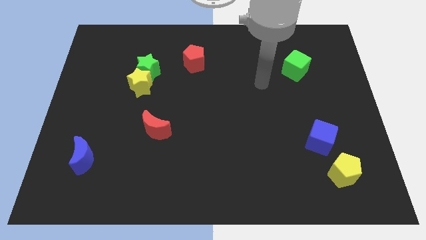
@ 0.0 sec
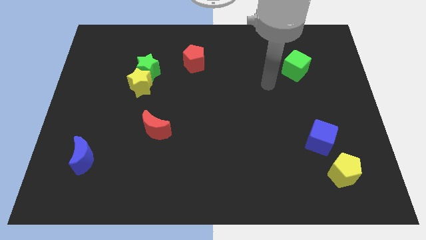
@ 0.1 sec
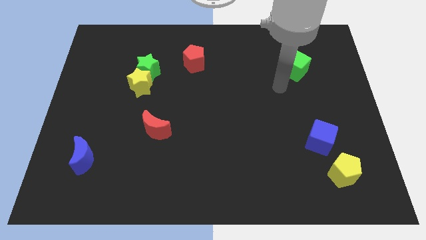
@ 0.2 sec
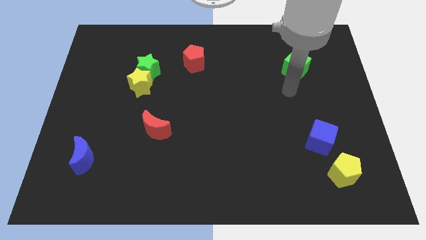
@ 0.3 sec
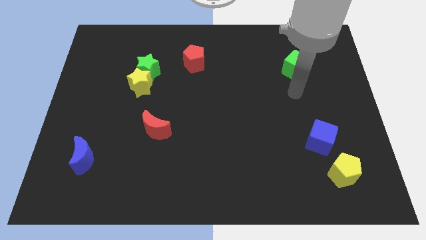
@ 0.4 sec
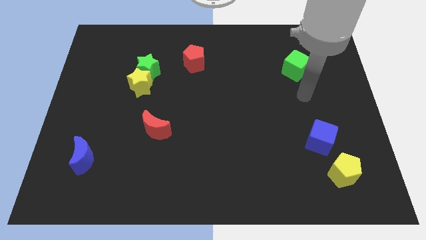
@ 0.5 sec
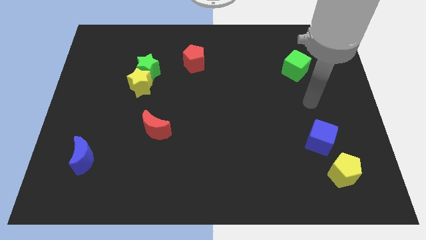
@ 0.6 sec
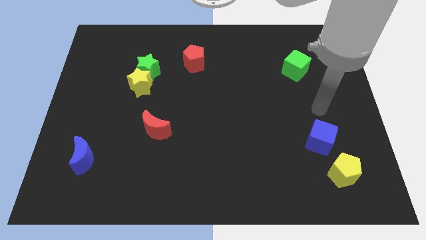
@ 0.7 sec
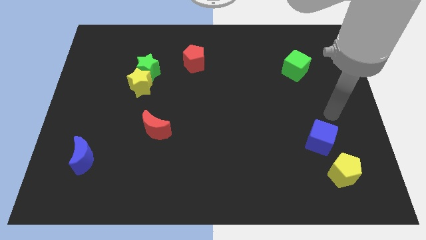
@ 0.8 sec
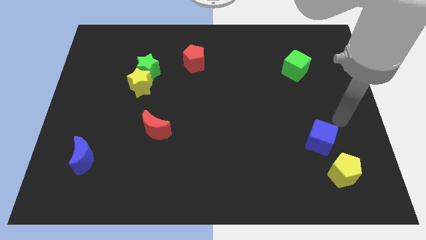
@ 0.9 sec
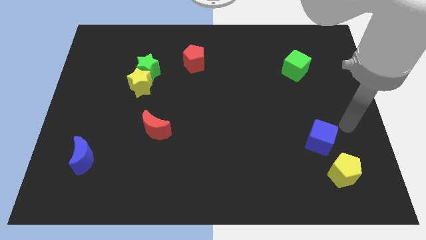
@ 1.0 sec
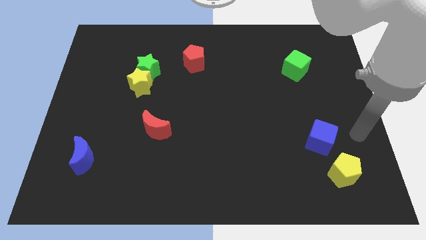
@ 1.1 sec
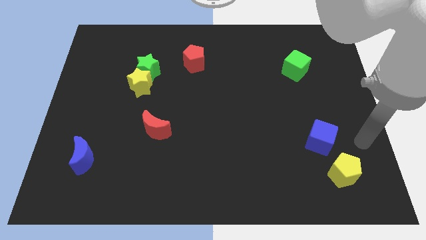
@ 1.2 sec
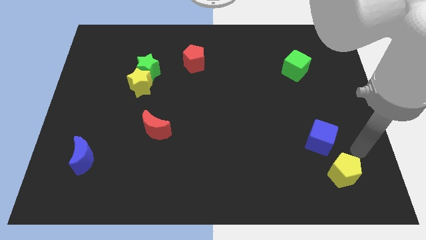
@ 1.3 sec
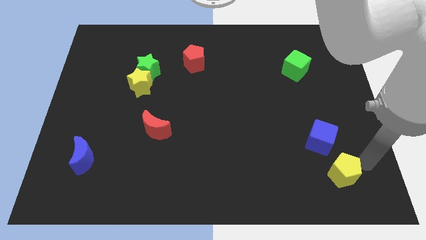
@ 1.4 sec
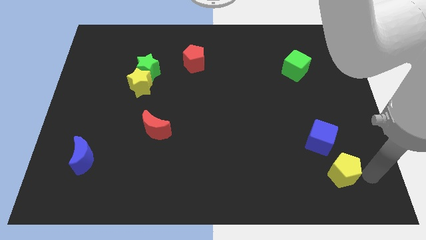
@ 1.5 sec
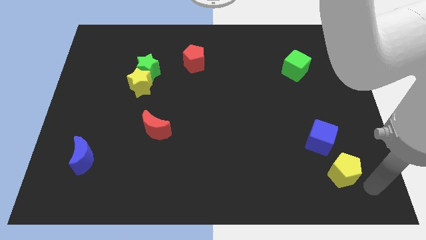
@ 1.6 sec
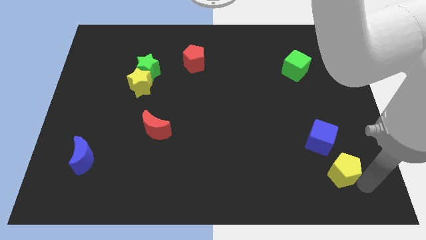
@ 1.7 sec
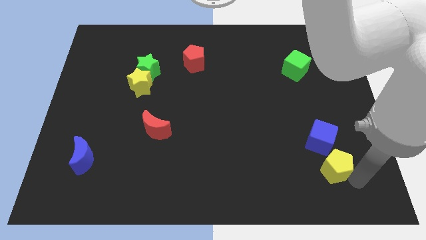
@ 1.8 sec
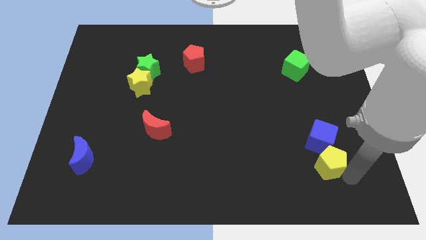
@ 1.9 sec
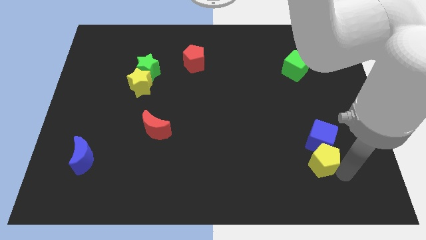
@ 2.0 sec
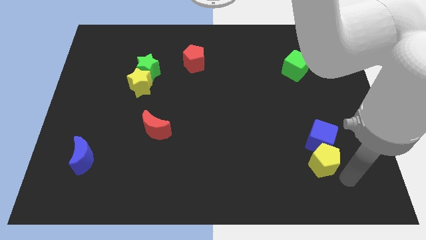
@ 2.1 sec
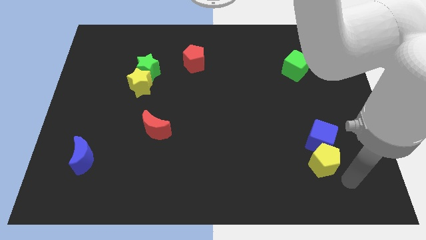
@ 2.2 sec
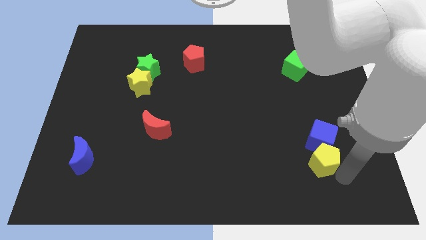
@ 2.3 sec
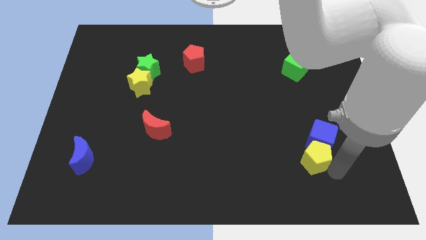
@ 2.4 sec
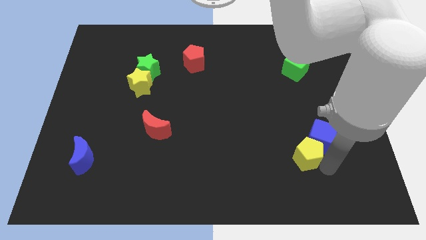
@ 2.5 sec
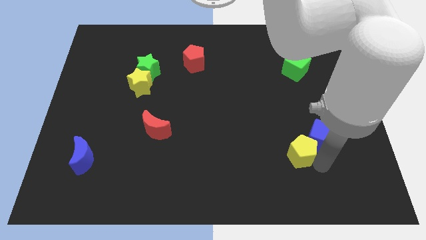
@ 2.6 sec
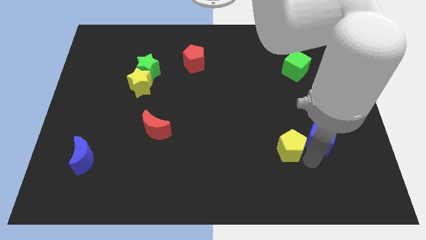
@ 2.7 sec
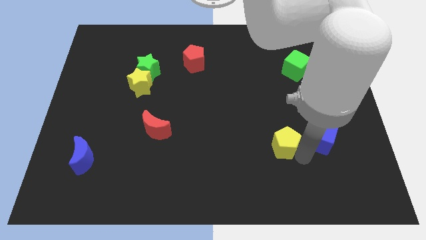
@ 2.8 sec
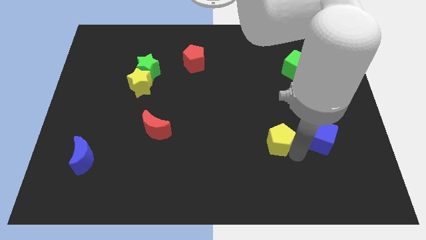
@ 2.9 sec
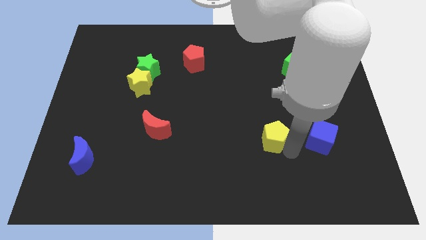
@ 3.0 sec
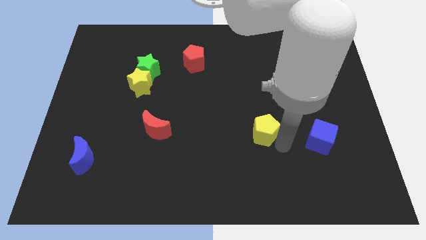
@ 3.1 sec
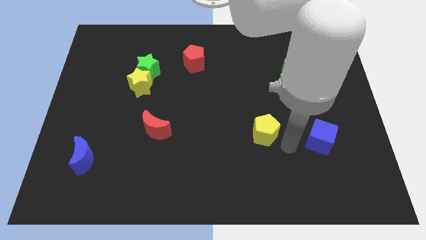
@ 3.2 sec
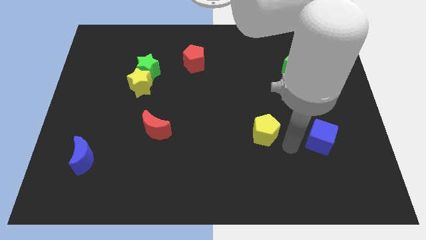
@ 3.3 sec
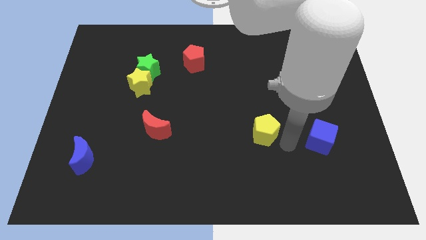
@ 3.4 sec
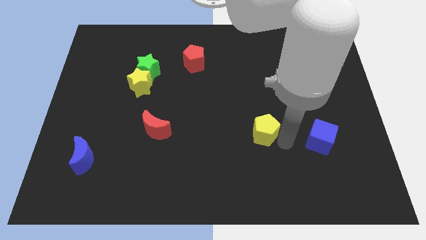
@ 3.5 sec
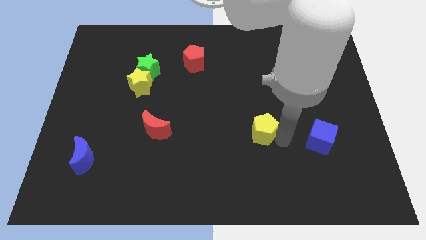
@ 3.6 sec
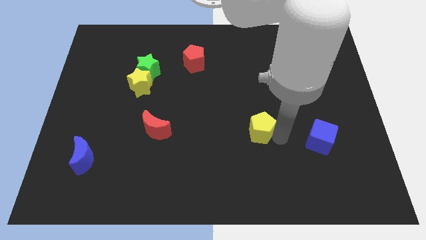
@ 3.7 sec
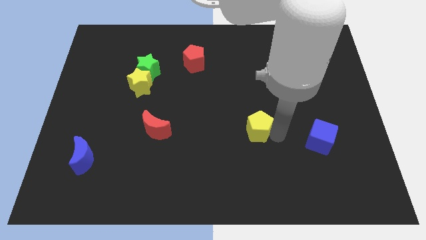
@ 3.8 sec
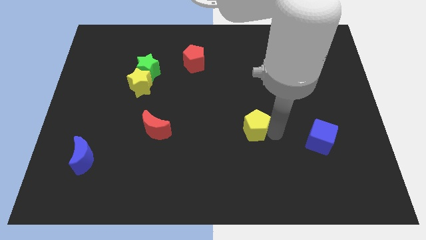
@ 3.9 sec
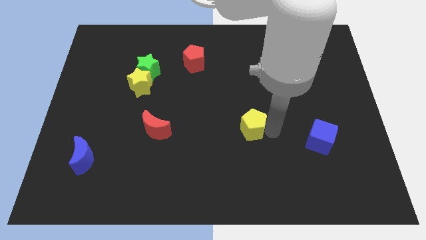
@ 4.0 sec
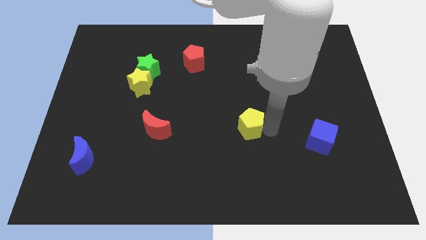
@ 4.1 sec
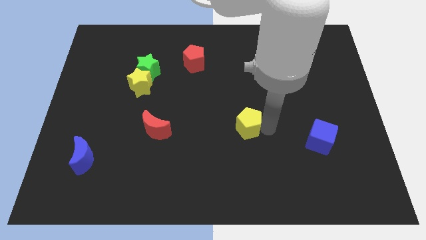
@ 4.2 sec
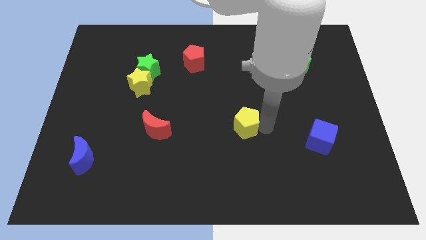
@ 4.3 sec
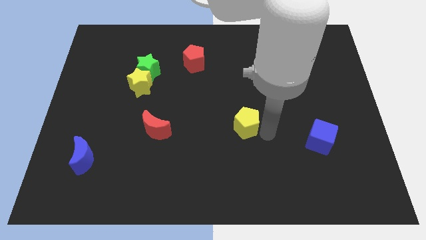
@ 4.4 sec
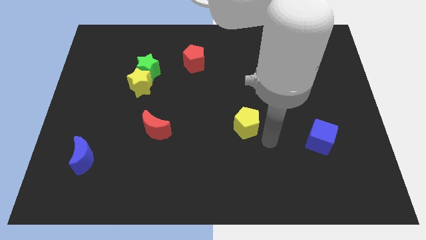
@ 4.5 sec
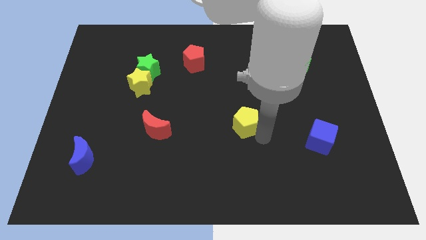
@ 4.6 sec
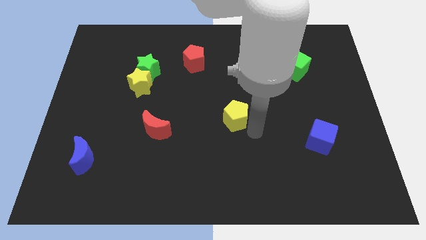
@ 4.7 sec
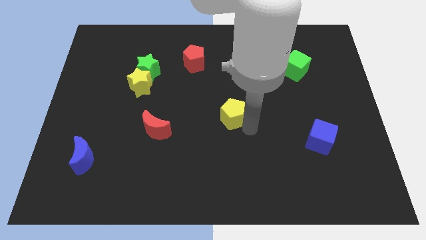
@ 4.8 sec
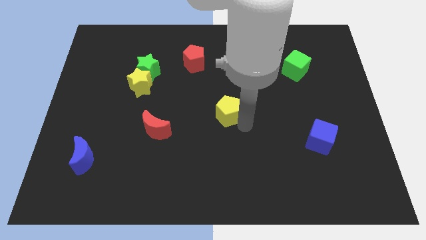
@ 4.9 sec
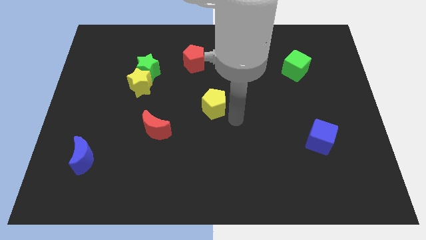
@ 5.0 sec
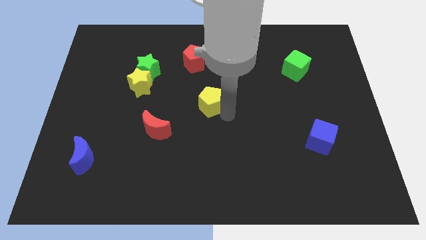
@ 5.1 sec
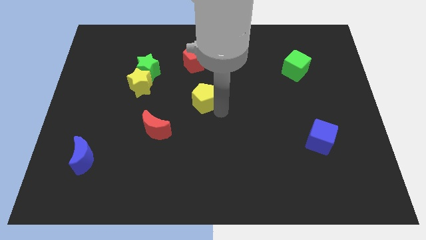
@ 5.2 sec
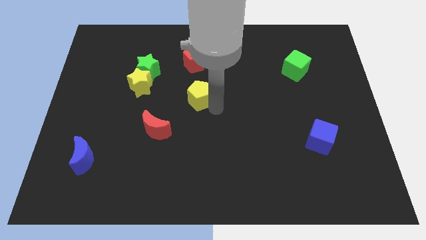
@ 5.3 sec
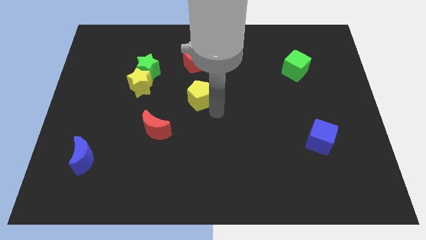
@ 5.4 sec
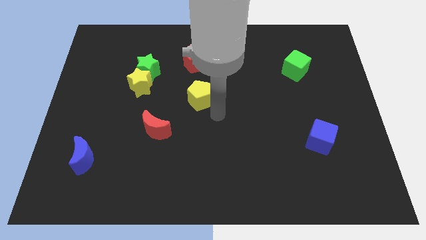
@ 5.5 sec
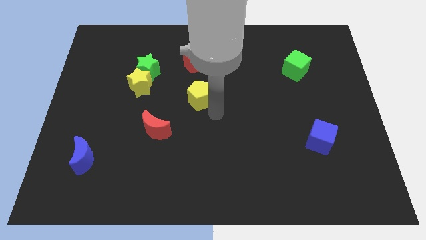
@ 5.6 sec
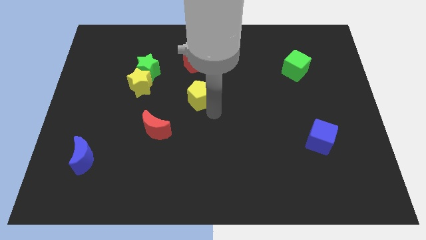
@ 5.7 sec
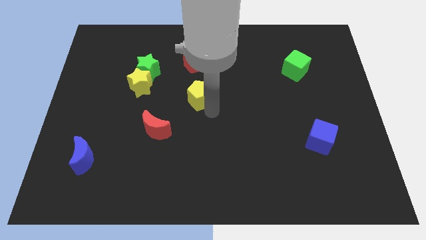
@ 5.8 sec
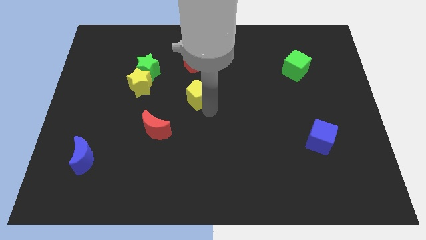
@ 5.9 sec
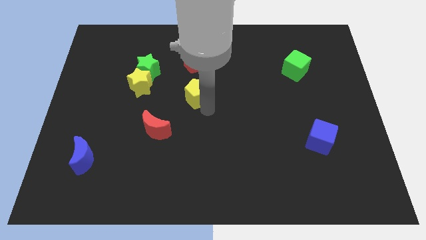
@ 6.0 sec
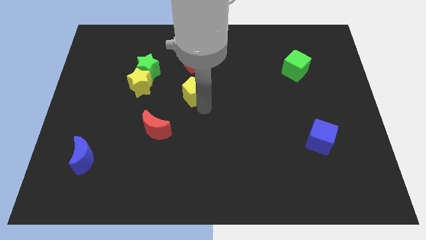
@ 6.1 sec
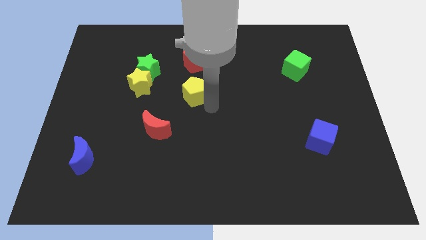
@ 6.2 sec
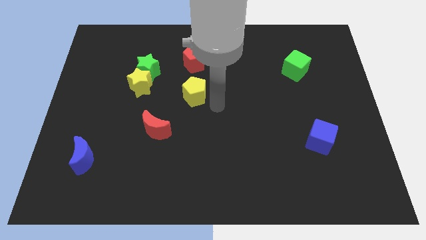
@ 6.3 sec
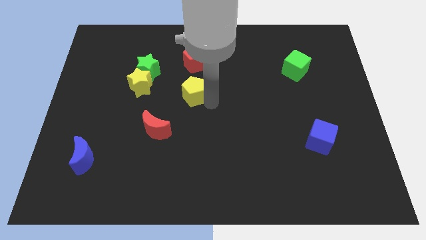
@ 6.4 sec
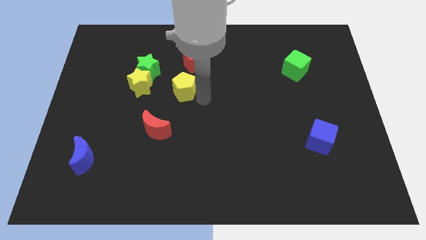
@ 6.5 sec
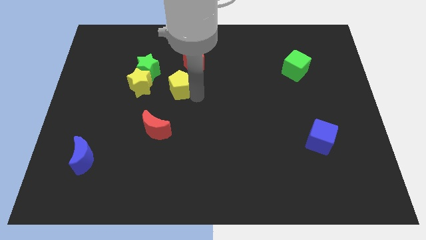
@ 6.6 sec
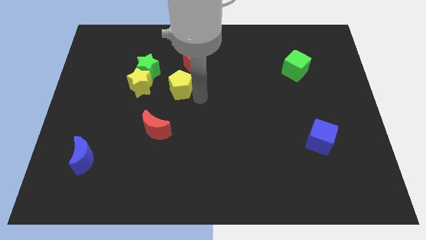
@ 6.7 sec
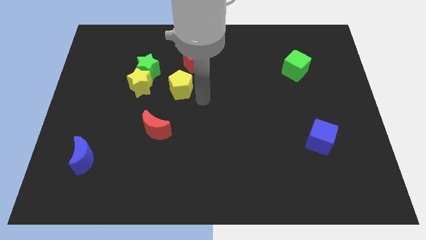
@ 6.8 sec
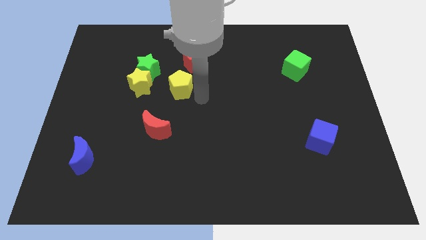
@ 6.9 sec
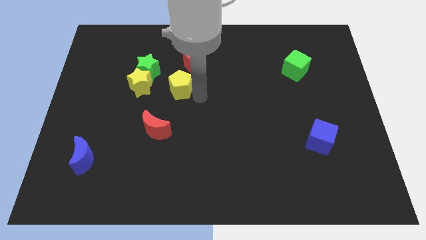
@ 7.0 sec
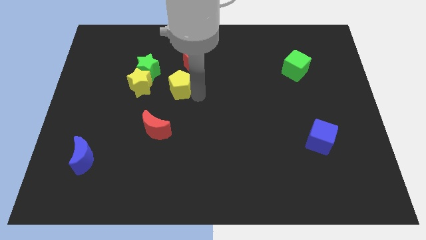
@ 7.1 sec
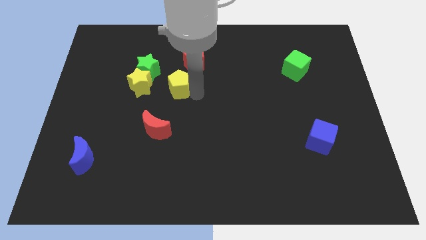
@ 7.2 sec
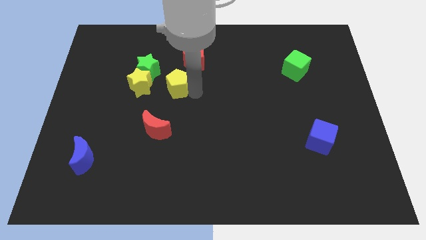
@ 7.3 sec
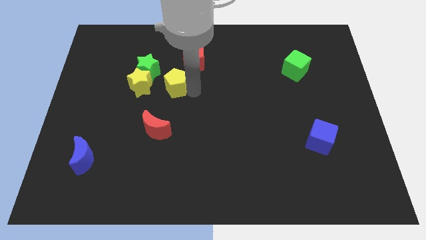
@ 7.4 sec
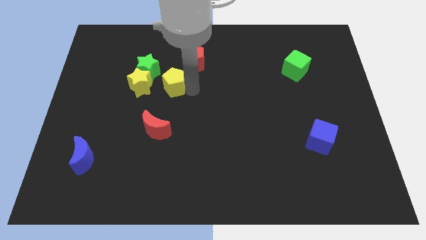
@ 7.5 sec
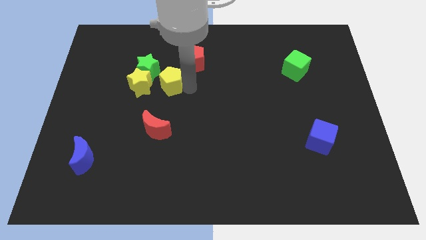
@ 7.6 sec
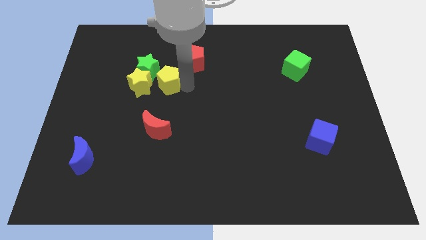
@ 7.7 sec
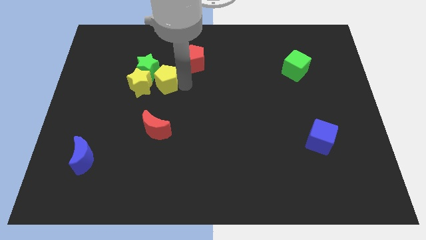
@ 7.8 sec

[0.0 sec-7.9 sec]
slide the yellow pentagon next to the green star
